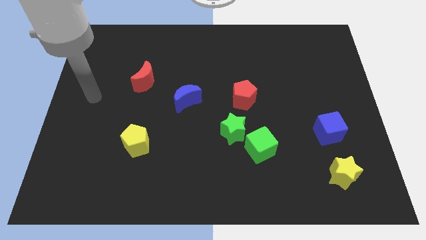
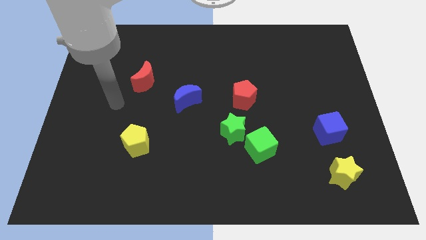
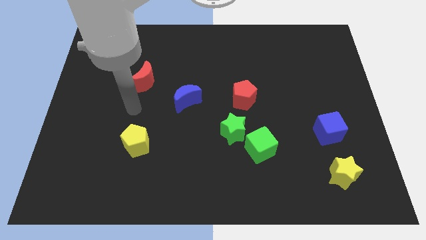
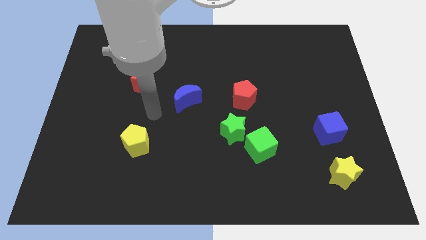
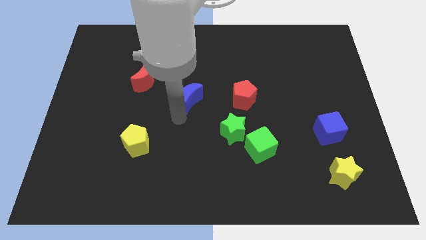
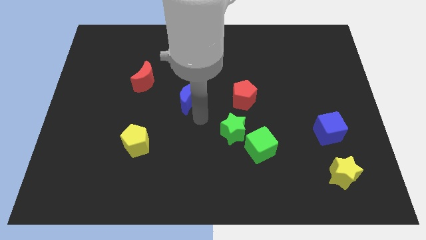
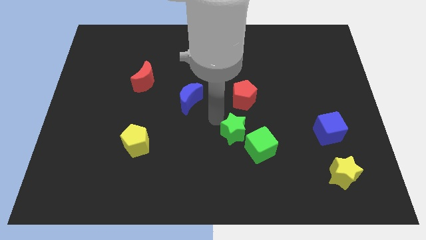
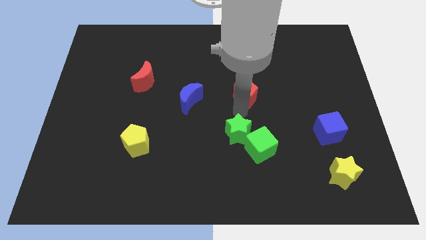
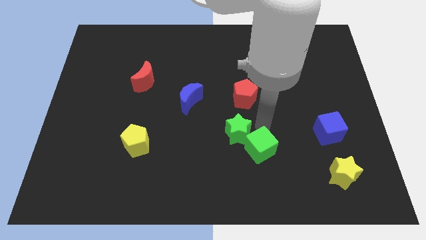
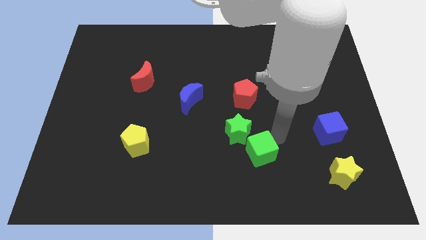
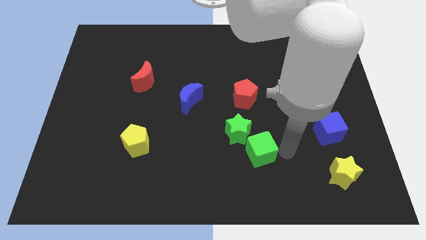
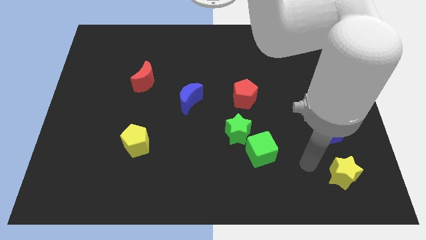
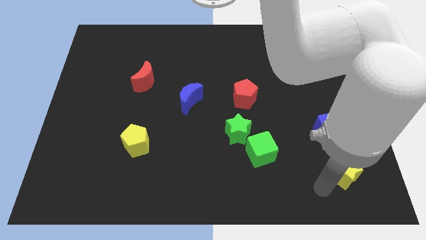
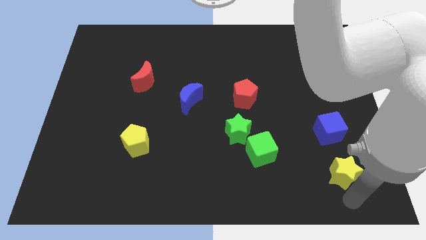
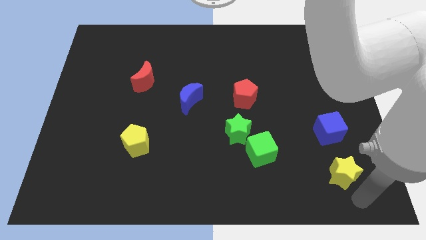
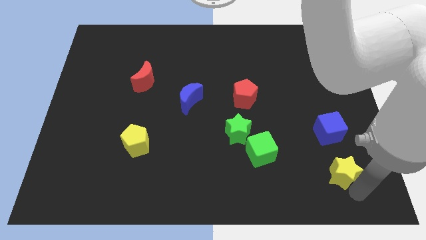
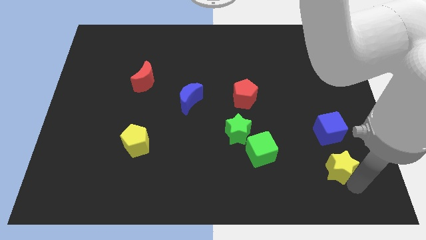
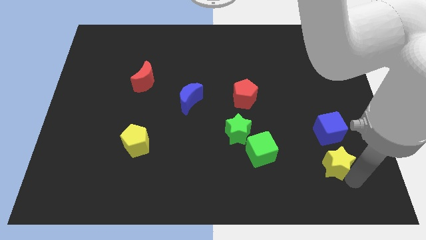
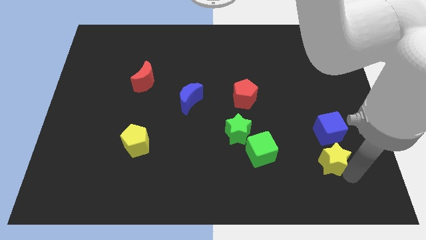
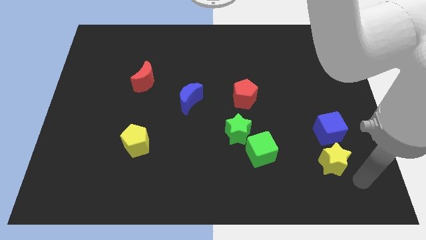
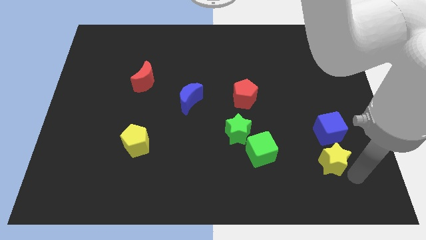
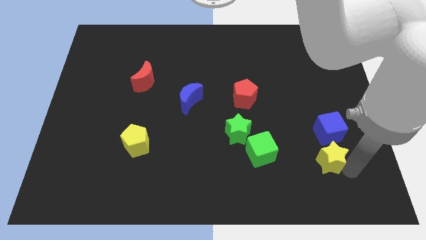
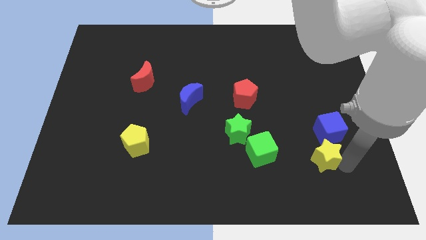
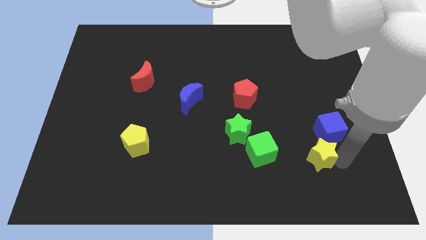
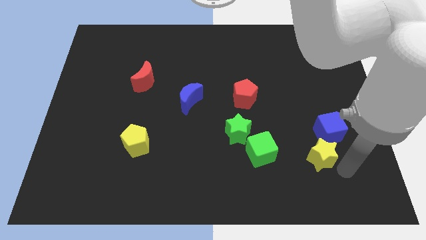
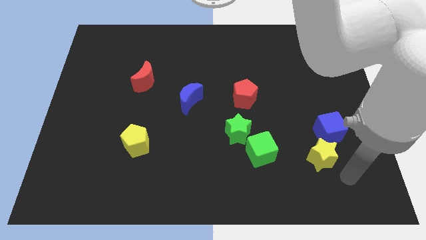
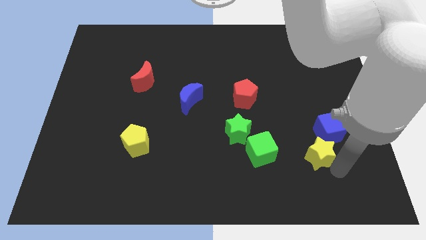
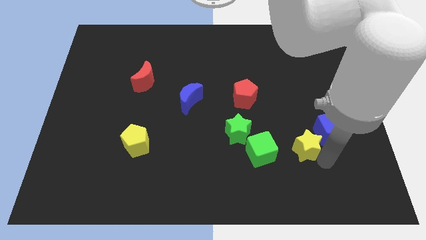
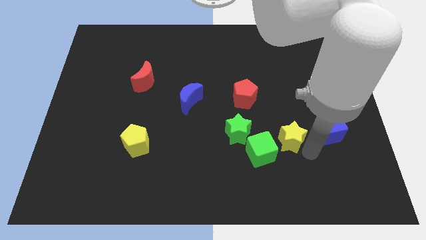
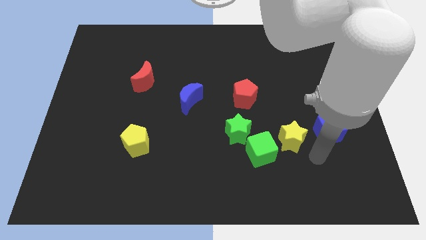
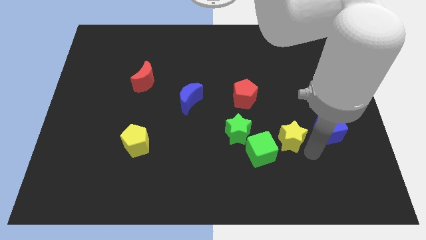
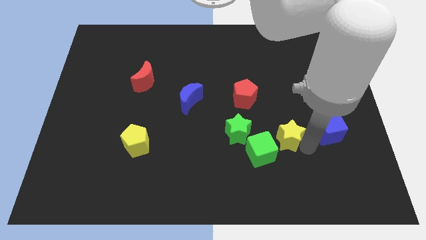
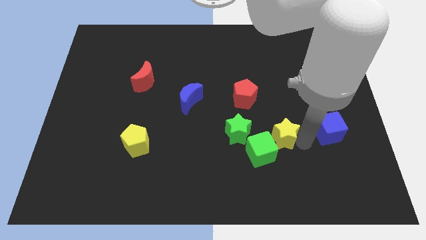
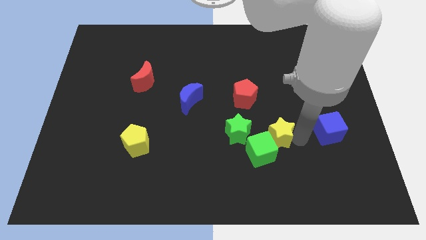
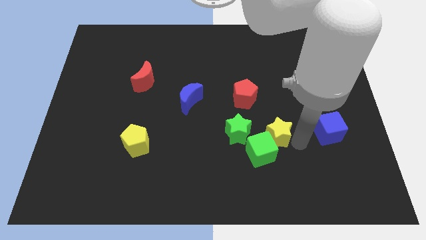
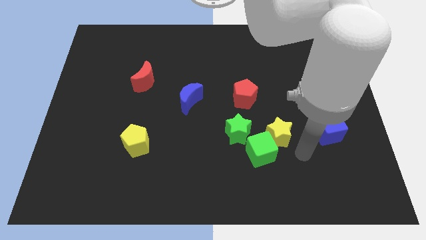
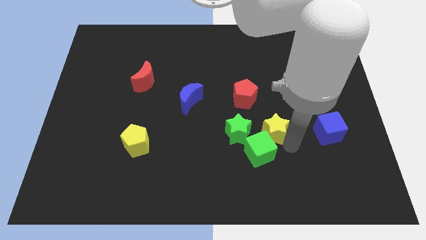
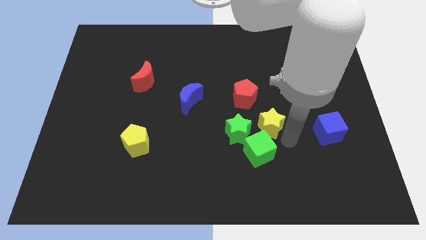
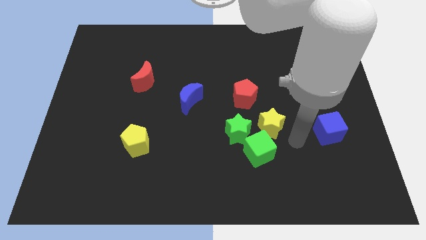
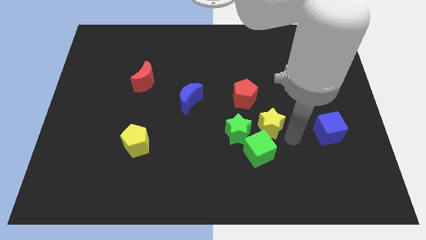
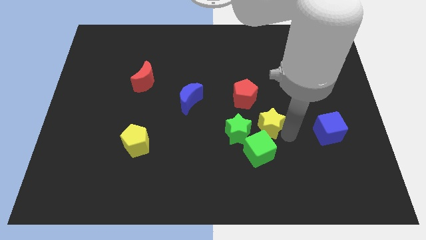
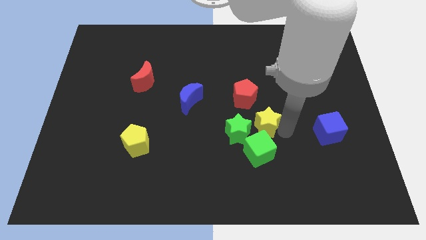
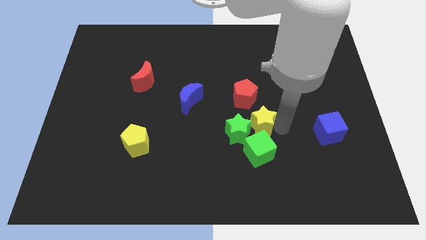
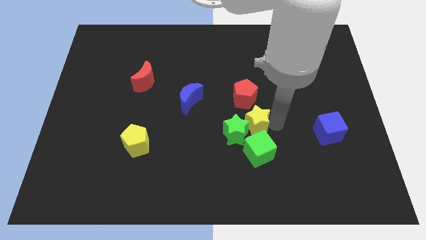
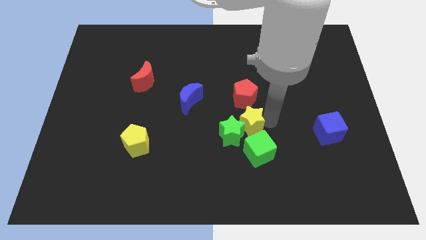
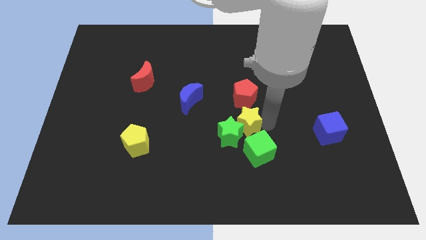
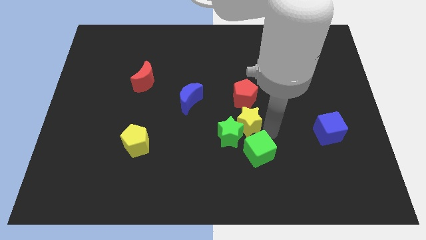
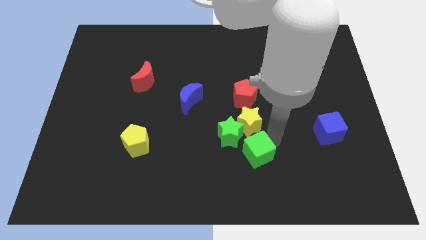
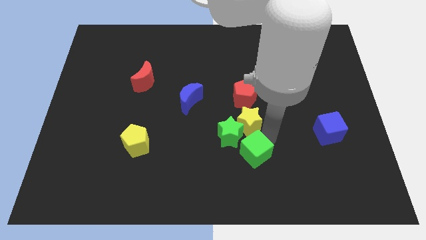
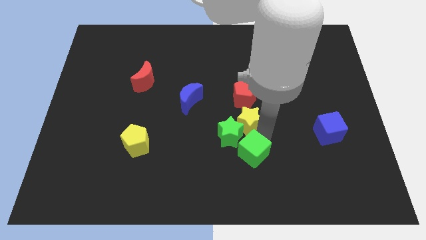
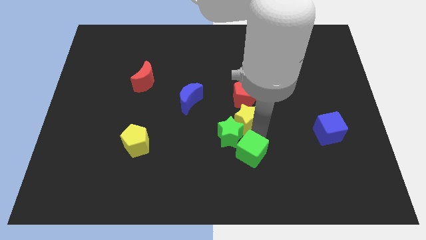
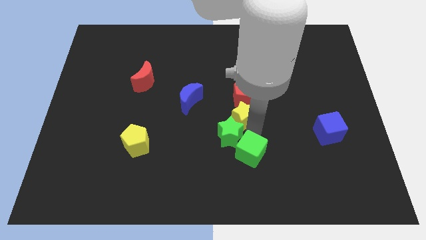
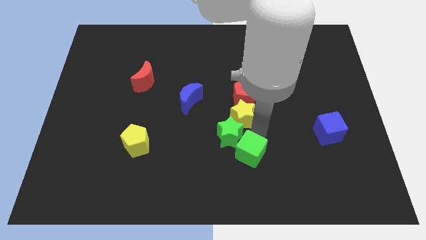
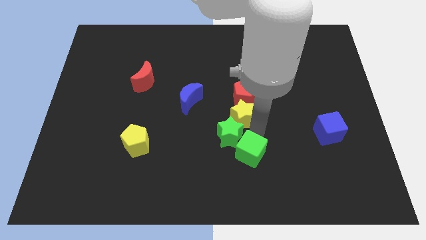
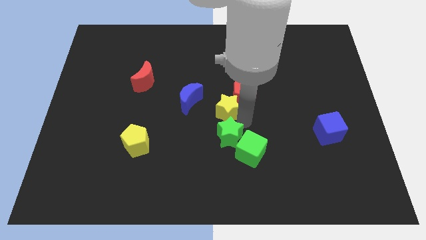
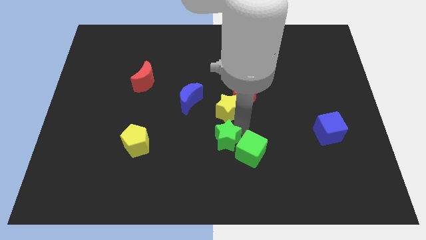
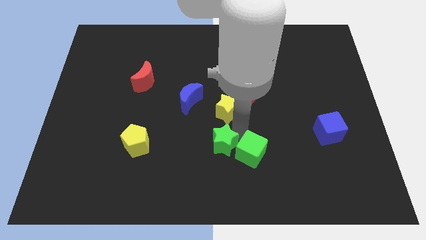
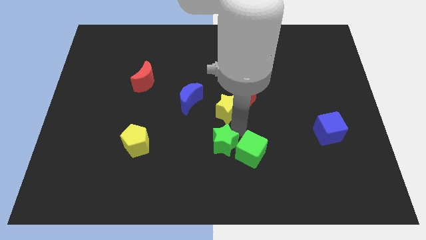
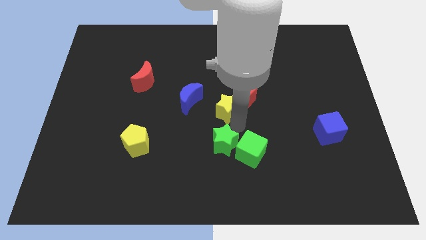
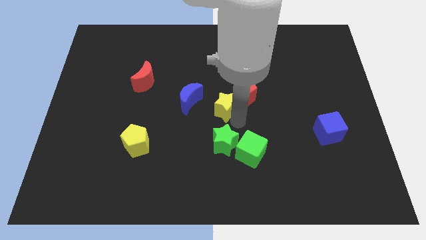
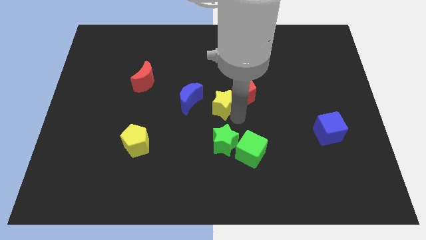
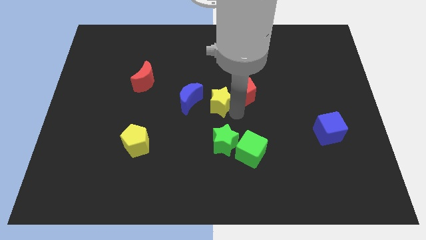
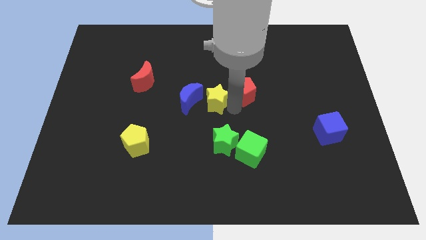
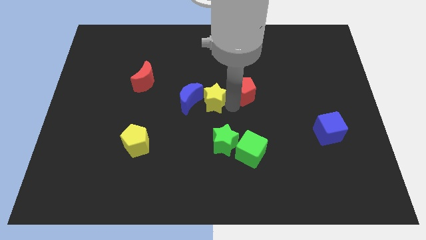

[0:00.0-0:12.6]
put the yellow star diagonally up and to the right of the blue moon

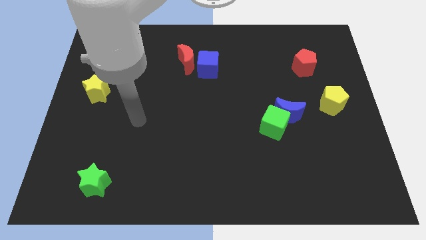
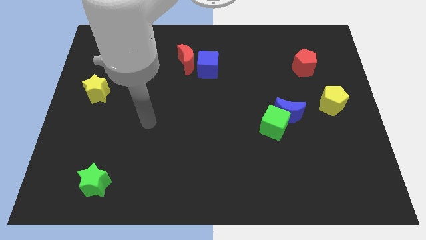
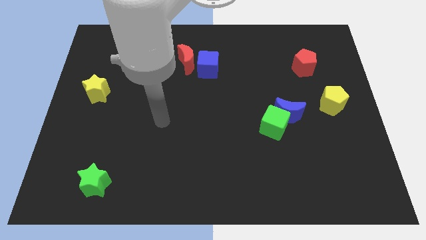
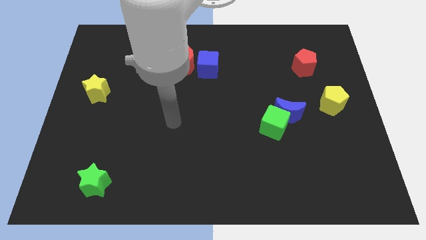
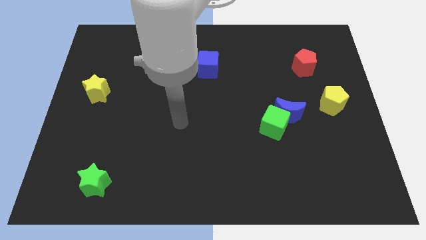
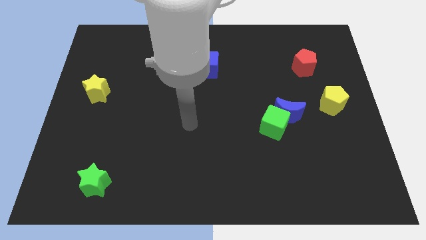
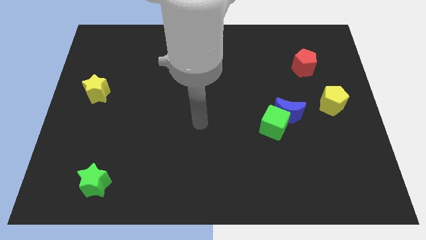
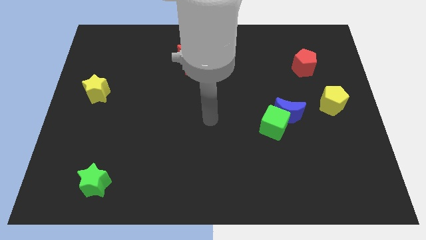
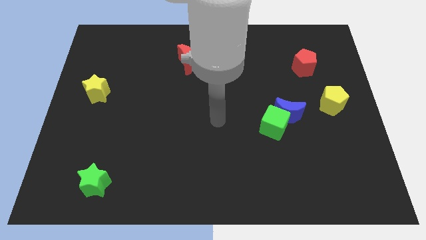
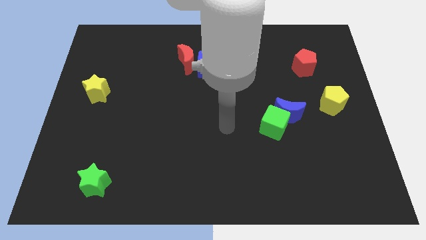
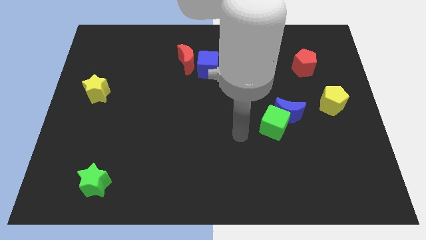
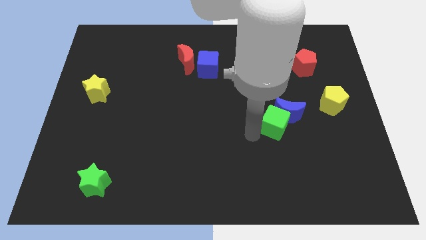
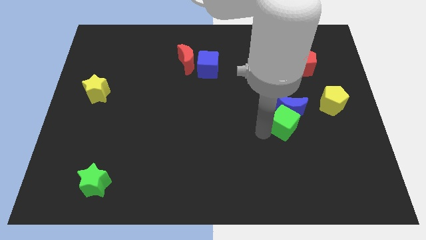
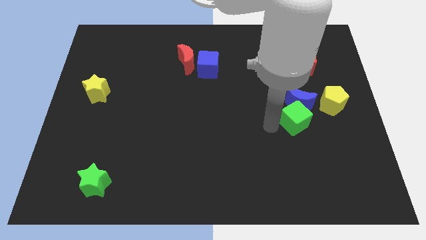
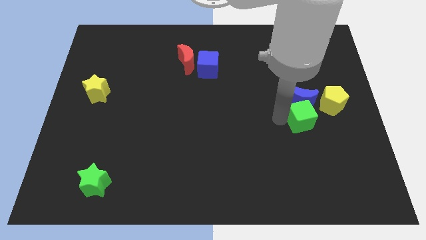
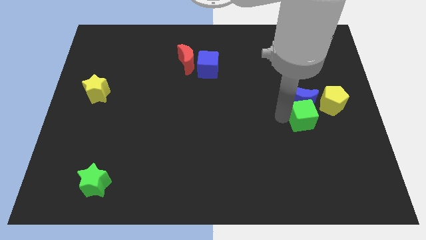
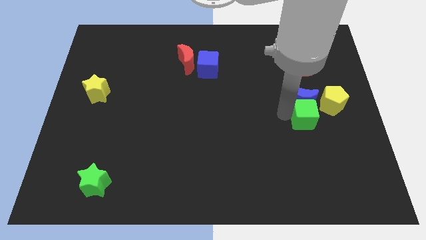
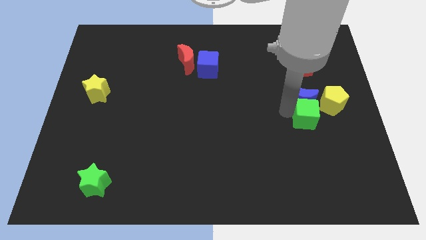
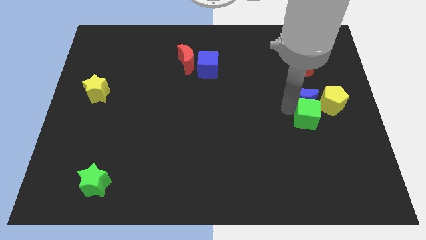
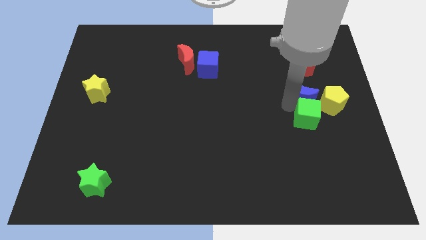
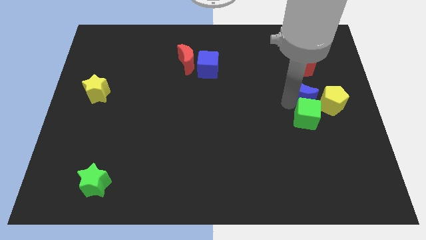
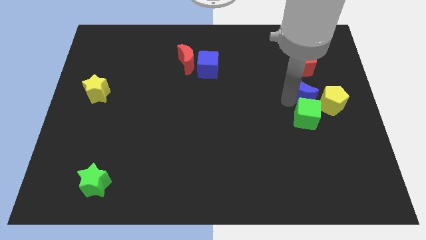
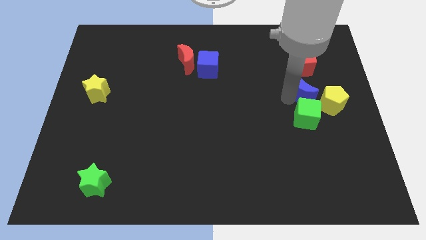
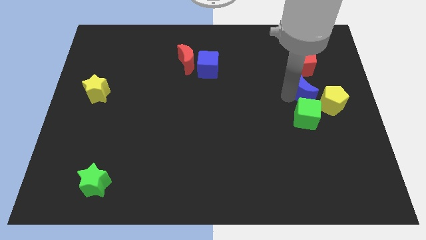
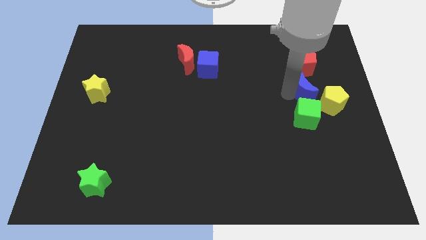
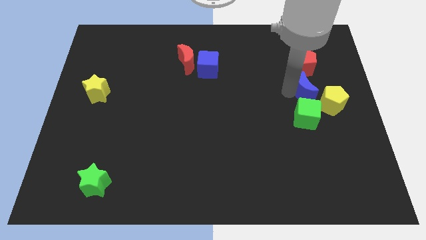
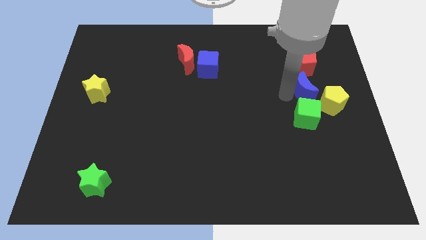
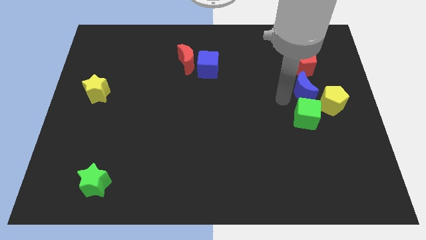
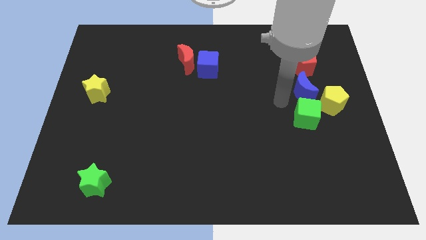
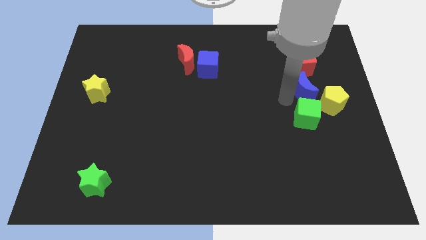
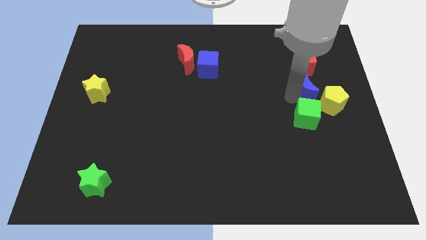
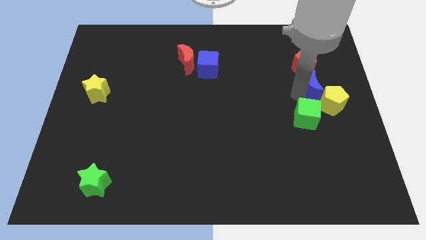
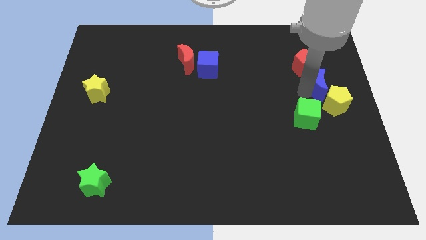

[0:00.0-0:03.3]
put the blue moon to the bottom right of the red pentagon
